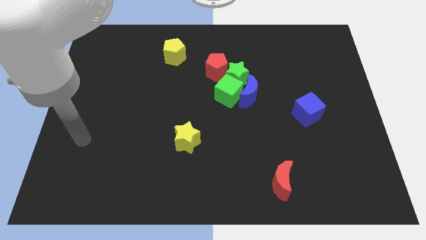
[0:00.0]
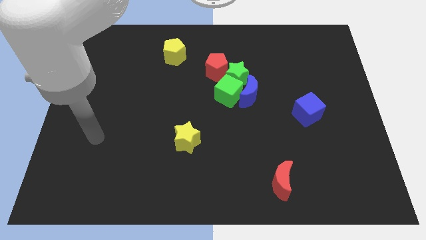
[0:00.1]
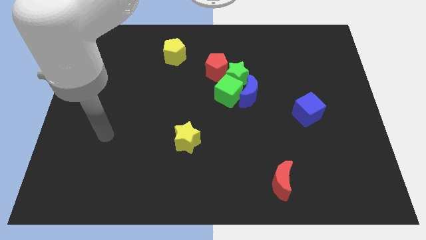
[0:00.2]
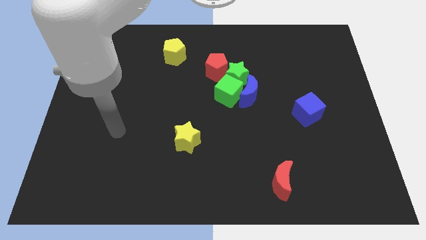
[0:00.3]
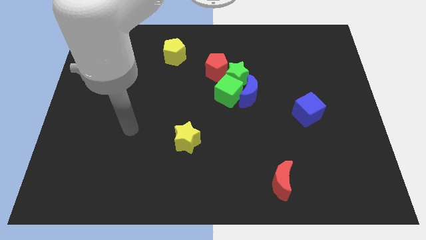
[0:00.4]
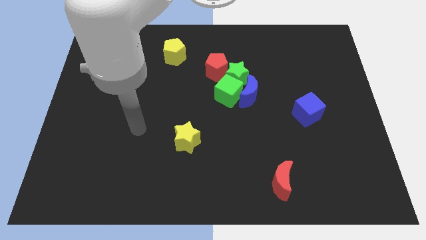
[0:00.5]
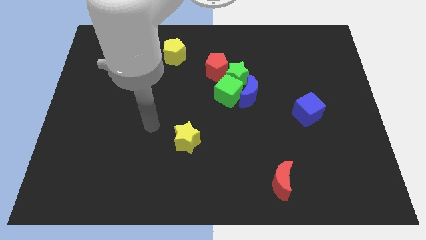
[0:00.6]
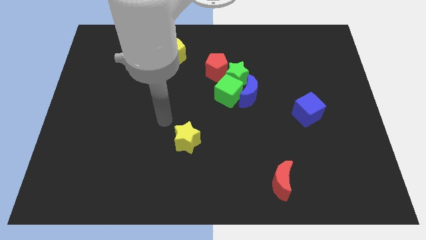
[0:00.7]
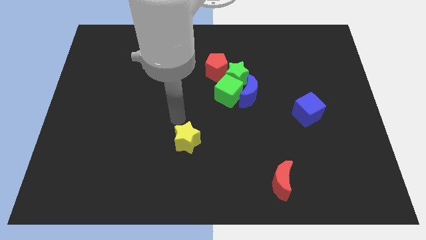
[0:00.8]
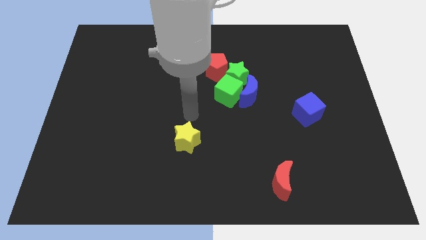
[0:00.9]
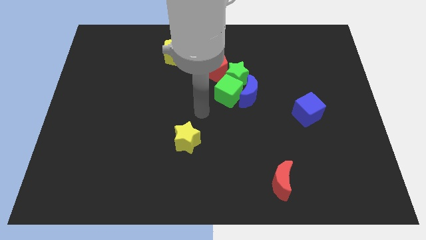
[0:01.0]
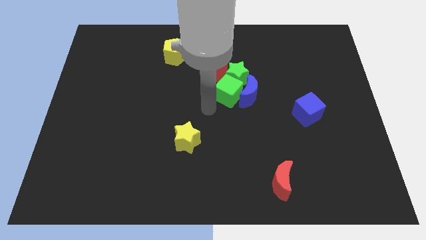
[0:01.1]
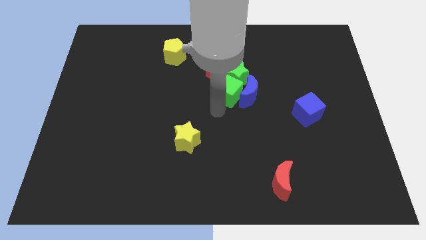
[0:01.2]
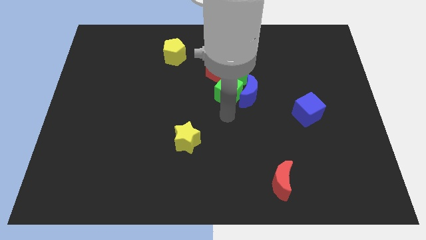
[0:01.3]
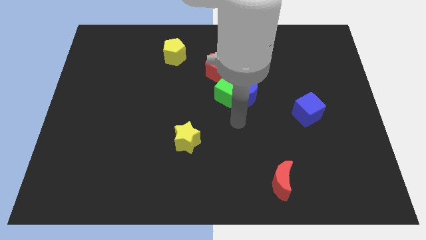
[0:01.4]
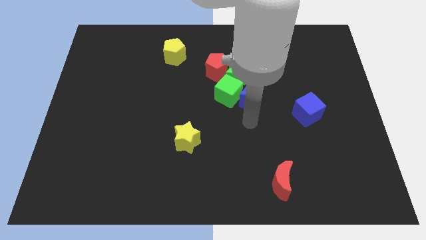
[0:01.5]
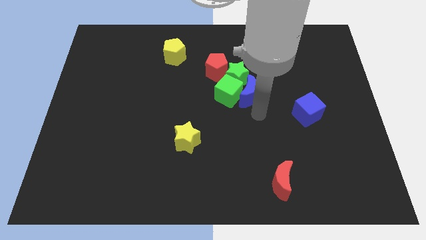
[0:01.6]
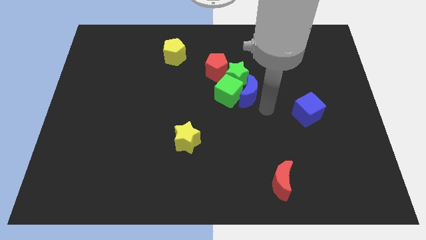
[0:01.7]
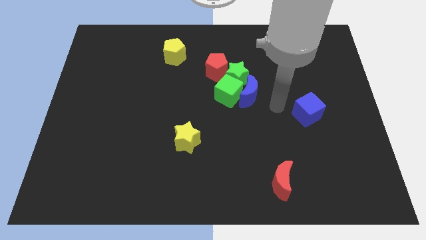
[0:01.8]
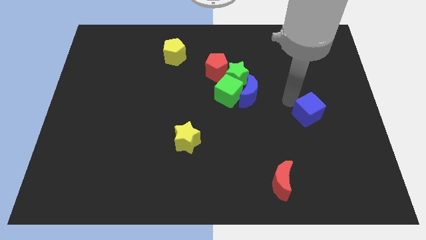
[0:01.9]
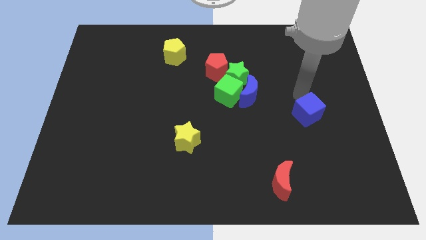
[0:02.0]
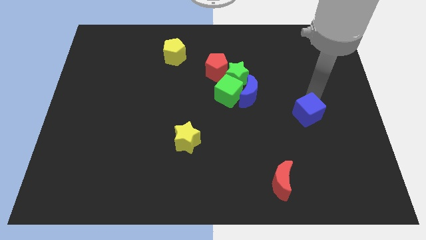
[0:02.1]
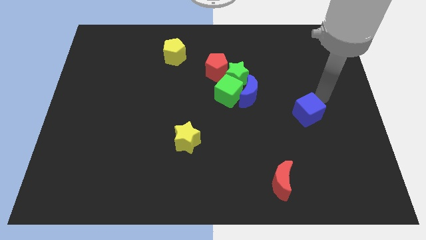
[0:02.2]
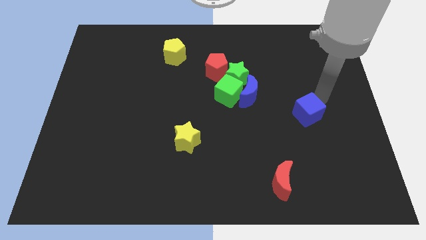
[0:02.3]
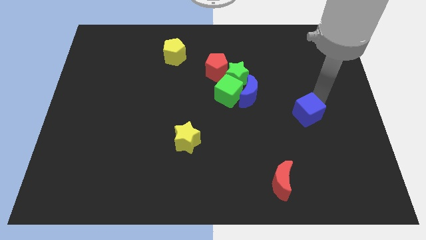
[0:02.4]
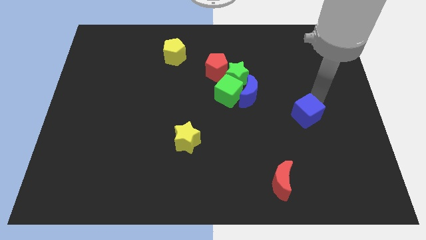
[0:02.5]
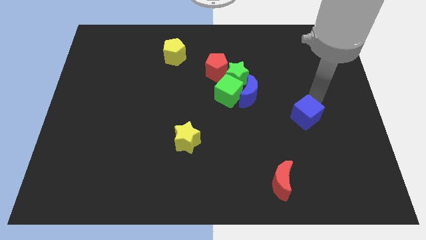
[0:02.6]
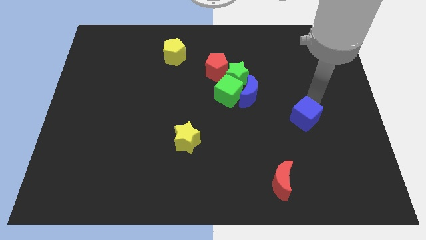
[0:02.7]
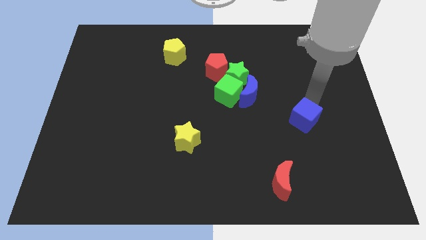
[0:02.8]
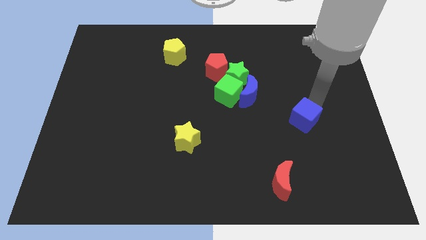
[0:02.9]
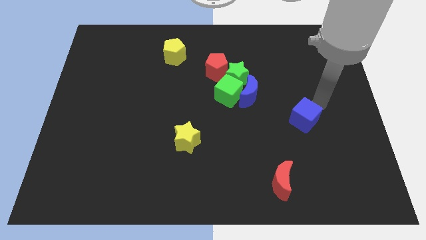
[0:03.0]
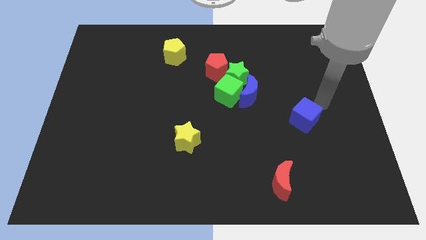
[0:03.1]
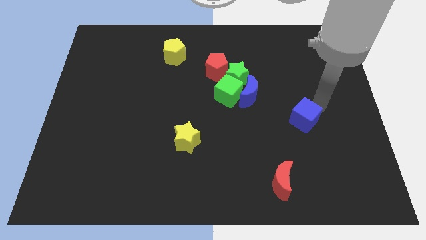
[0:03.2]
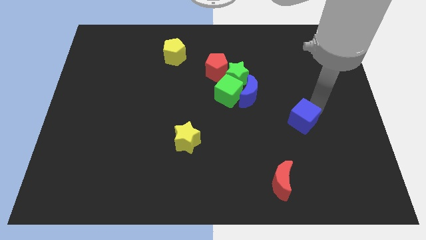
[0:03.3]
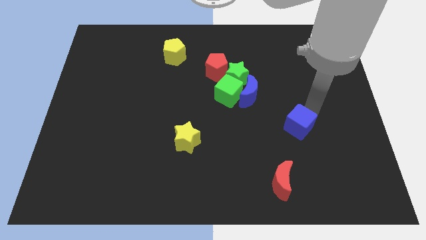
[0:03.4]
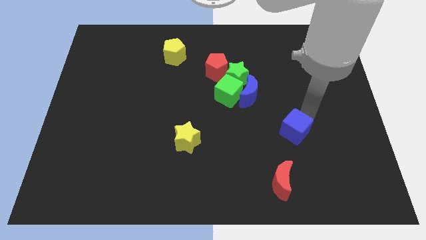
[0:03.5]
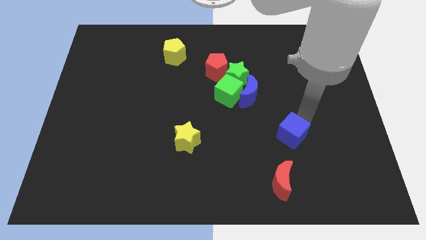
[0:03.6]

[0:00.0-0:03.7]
move the blue cube diagonally downwards and left a little

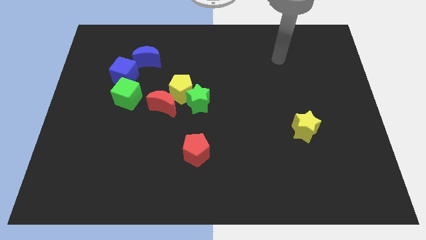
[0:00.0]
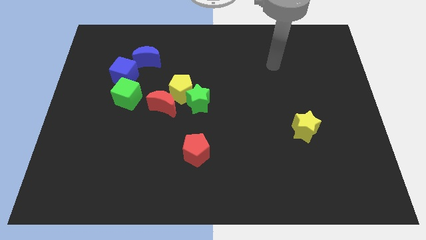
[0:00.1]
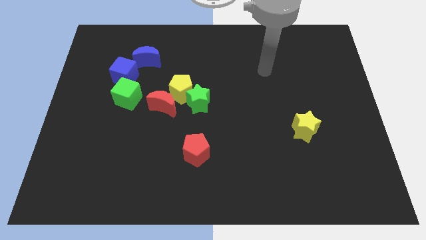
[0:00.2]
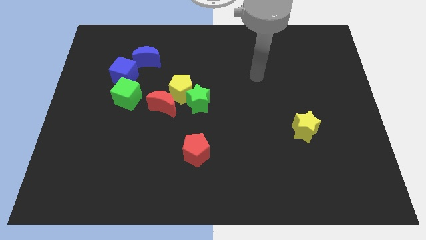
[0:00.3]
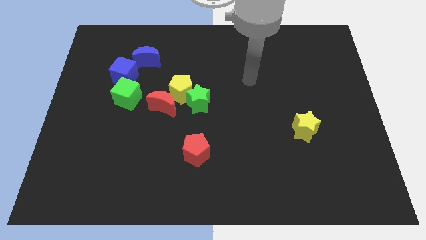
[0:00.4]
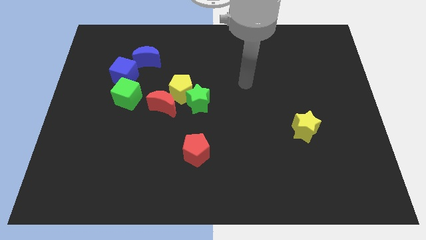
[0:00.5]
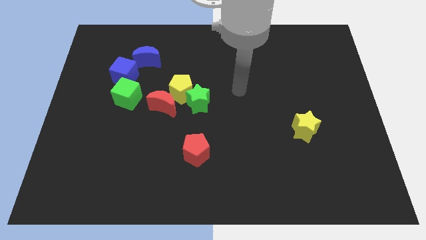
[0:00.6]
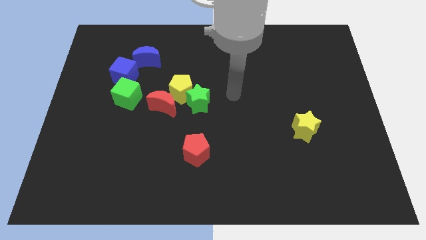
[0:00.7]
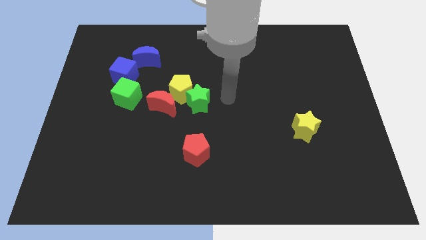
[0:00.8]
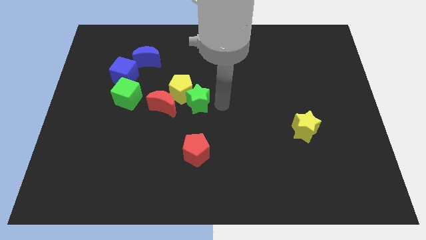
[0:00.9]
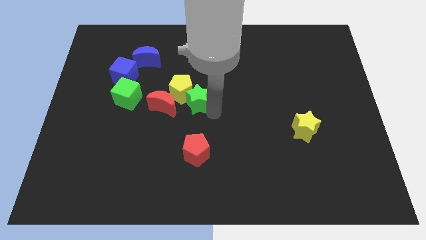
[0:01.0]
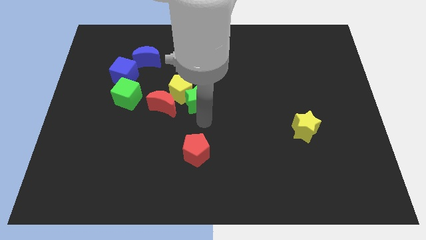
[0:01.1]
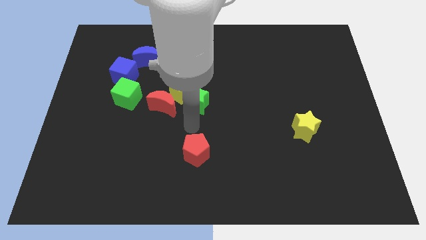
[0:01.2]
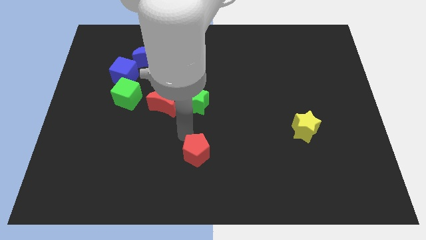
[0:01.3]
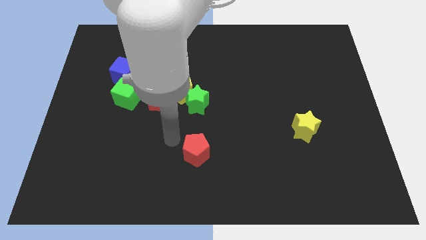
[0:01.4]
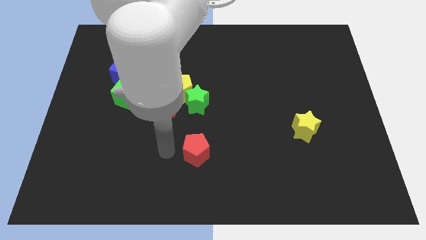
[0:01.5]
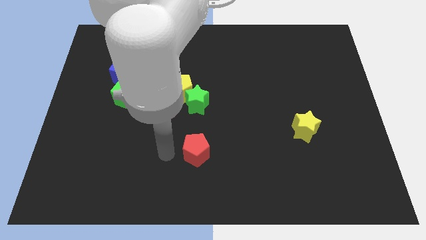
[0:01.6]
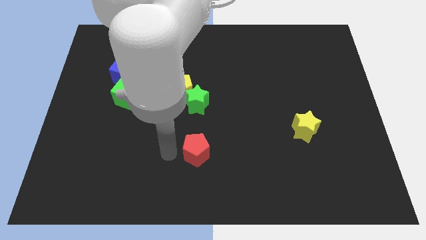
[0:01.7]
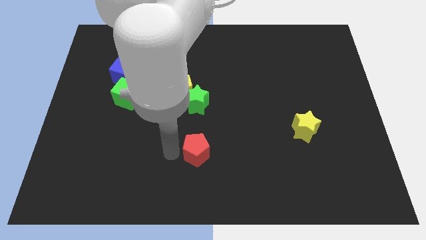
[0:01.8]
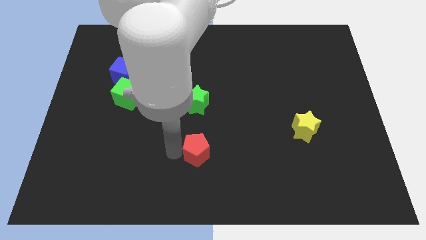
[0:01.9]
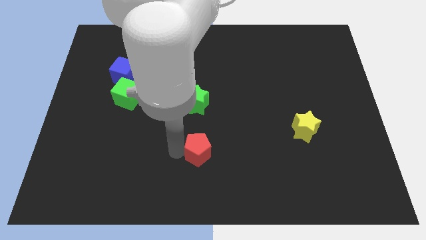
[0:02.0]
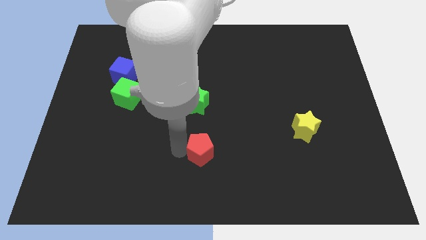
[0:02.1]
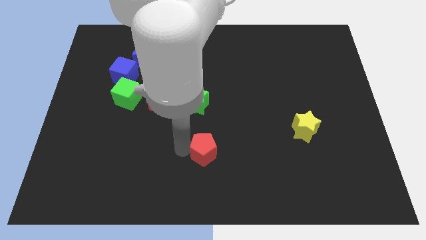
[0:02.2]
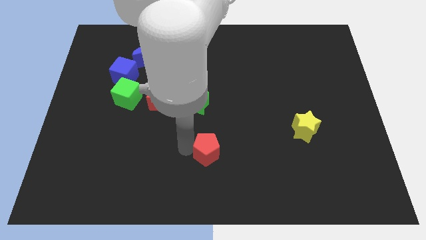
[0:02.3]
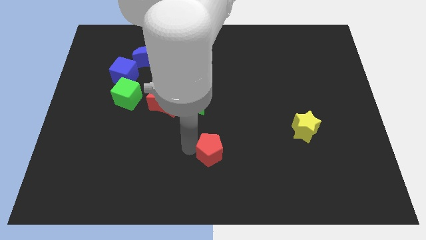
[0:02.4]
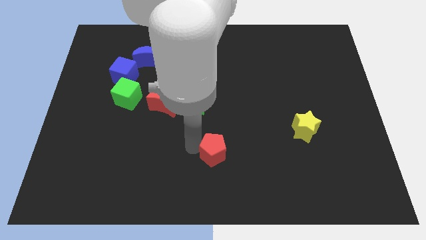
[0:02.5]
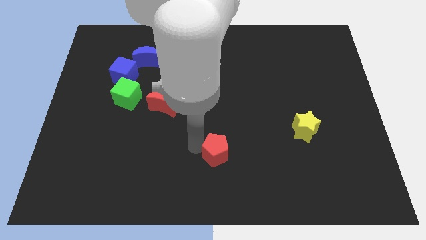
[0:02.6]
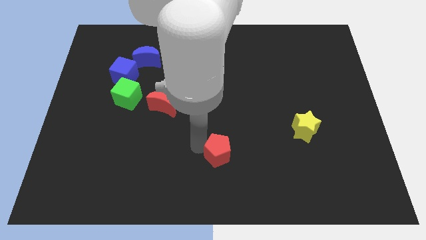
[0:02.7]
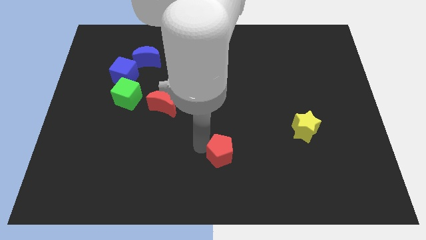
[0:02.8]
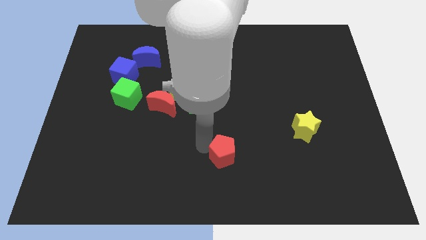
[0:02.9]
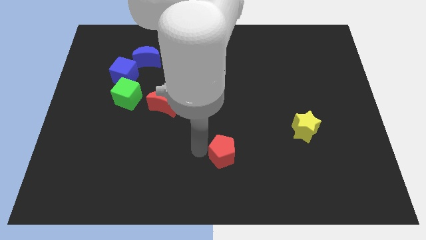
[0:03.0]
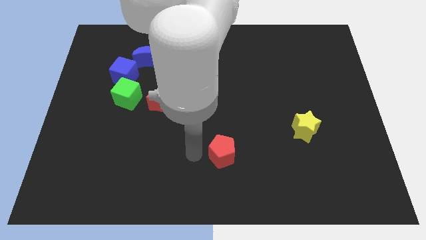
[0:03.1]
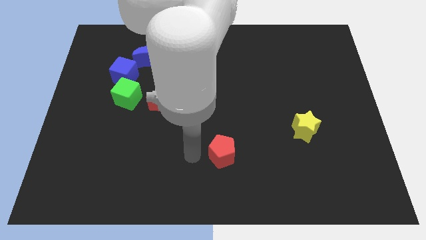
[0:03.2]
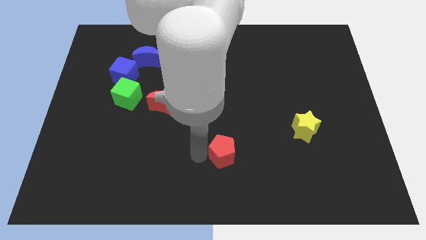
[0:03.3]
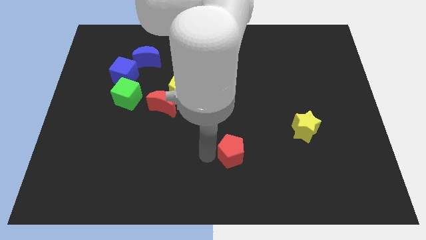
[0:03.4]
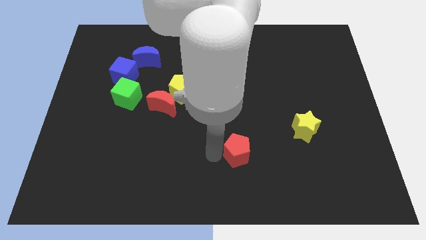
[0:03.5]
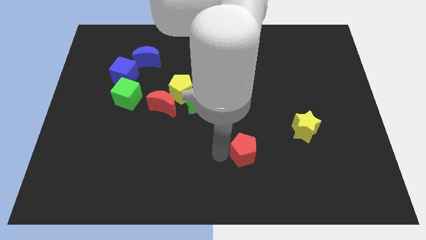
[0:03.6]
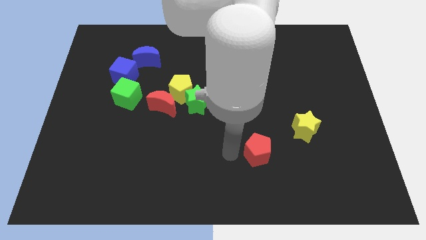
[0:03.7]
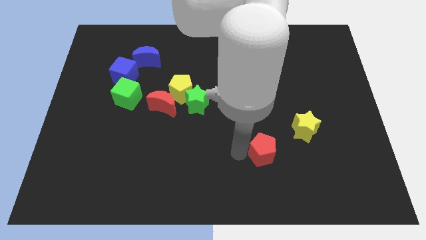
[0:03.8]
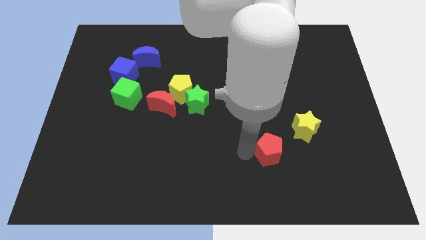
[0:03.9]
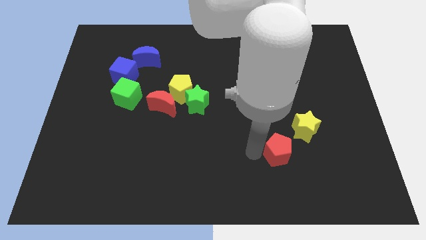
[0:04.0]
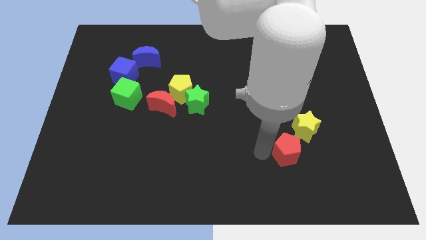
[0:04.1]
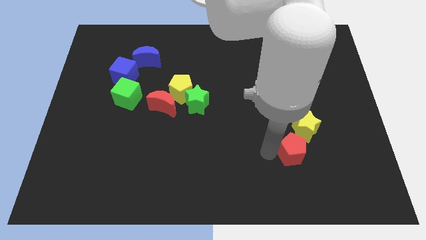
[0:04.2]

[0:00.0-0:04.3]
slide the red pentagon to the right
